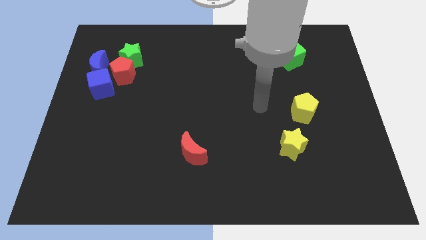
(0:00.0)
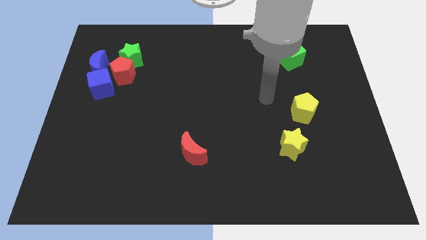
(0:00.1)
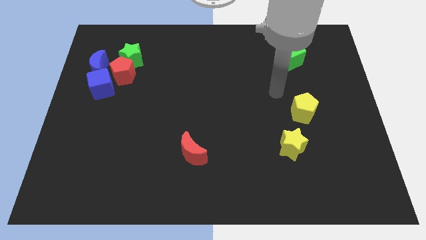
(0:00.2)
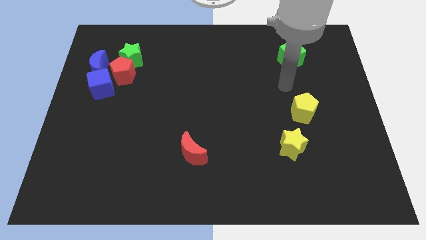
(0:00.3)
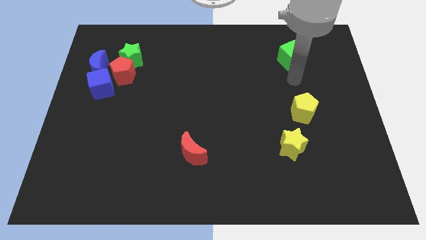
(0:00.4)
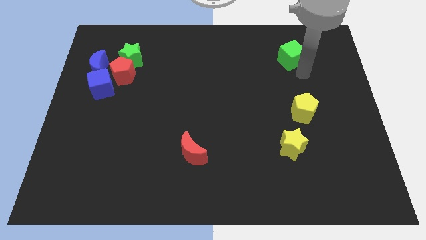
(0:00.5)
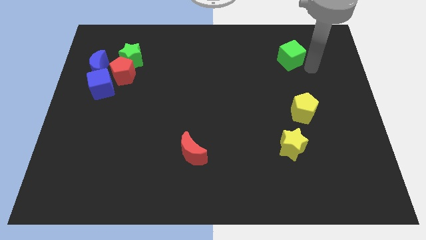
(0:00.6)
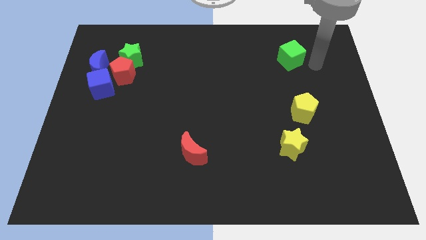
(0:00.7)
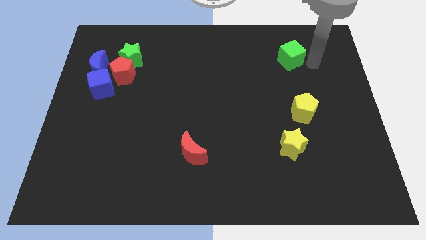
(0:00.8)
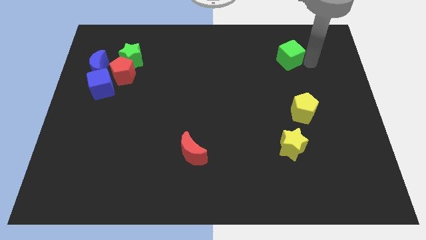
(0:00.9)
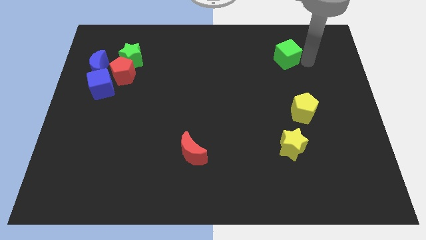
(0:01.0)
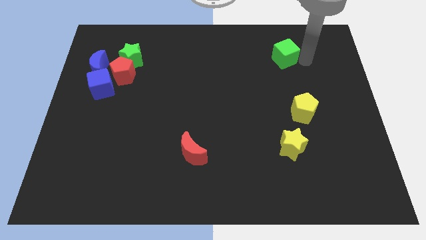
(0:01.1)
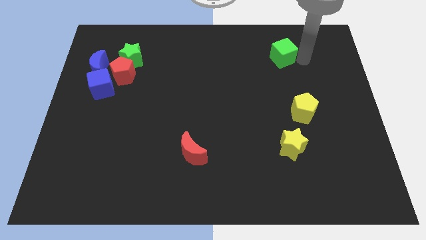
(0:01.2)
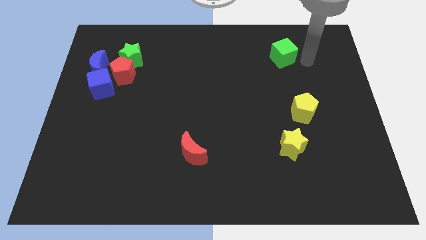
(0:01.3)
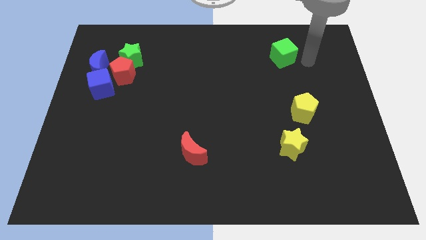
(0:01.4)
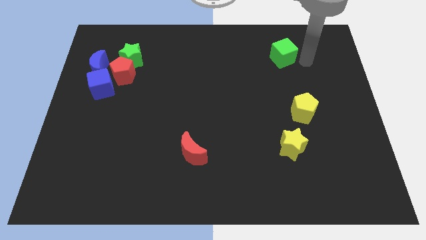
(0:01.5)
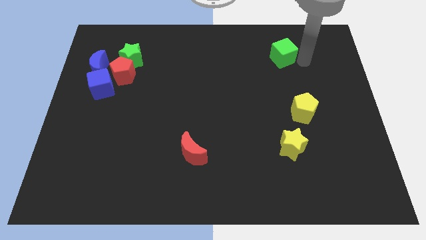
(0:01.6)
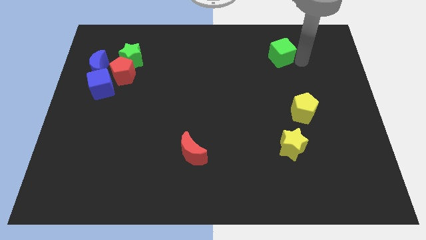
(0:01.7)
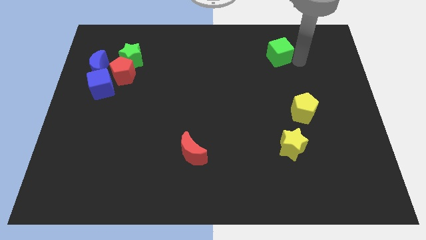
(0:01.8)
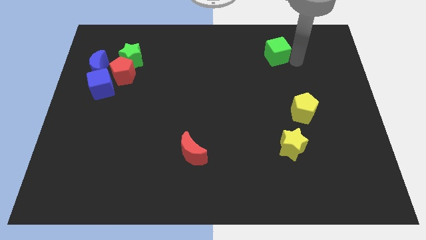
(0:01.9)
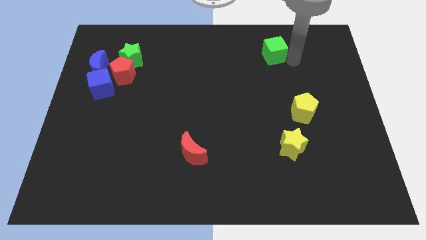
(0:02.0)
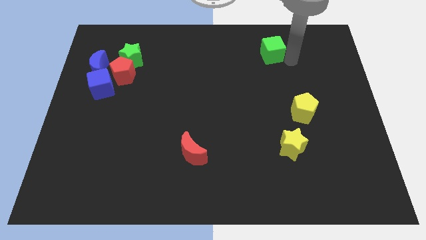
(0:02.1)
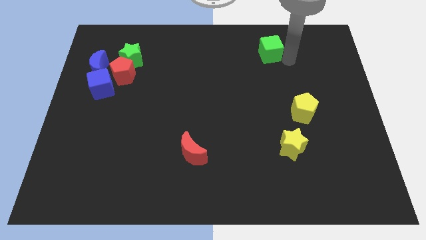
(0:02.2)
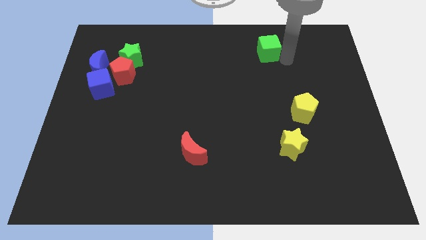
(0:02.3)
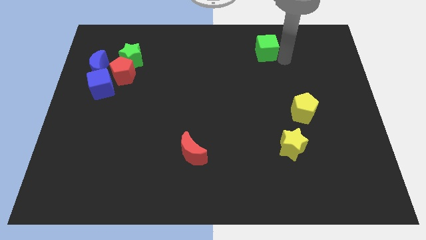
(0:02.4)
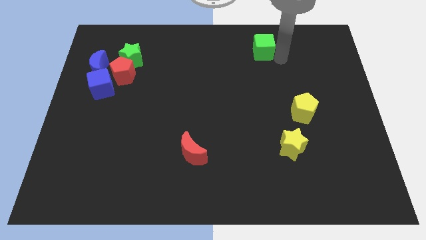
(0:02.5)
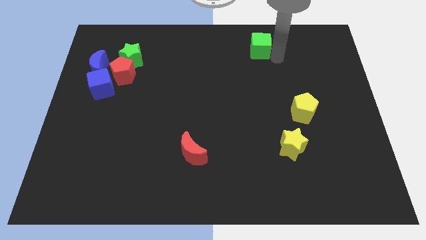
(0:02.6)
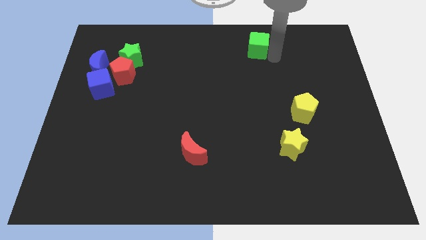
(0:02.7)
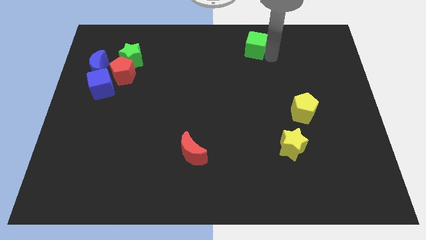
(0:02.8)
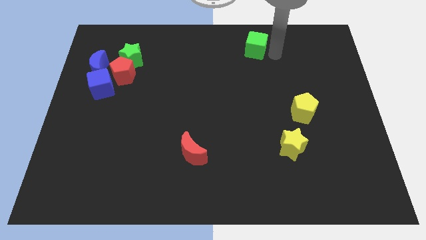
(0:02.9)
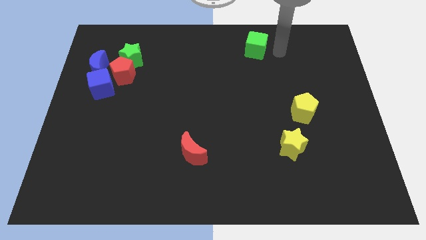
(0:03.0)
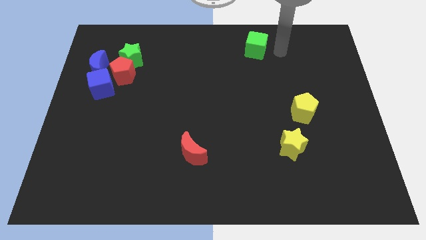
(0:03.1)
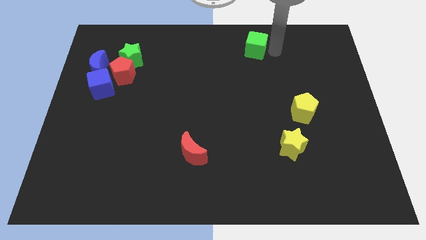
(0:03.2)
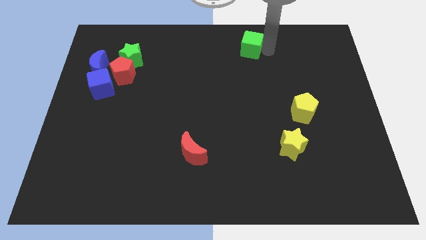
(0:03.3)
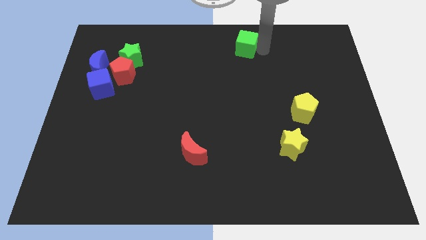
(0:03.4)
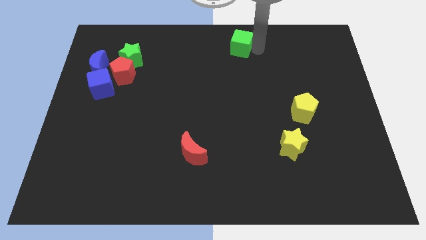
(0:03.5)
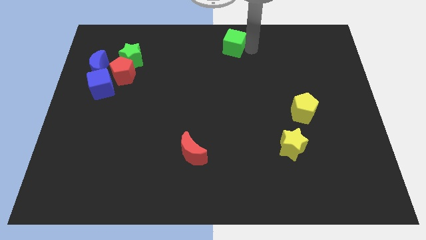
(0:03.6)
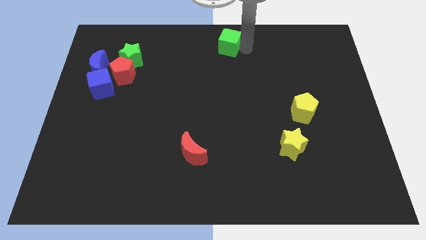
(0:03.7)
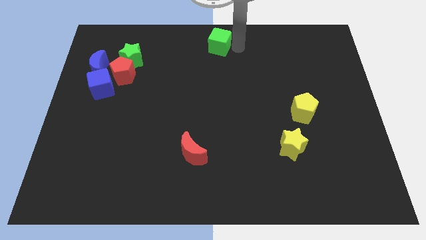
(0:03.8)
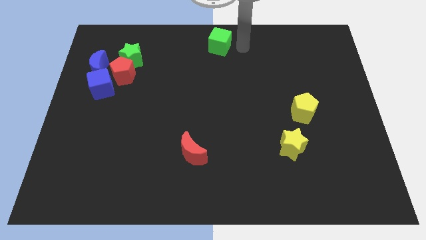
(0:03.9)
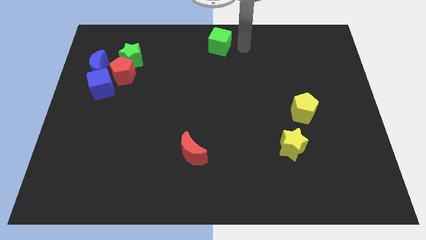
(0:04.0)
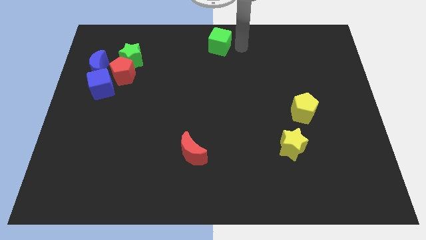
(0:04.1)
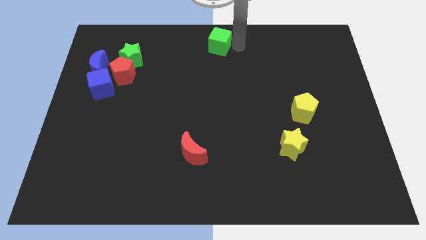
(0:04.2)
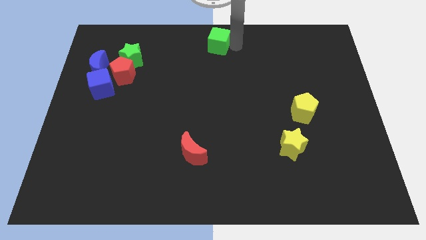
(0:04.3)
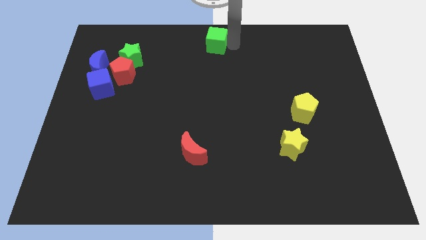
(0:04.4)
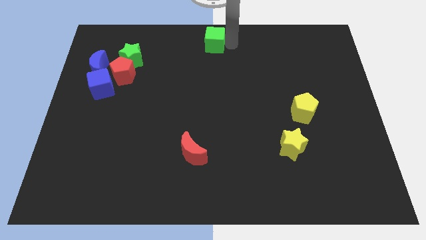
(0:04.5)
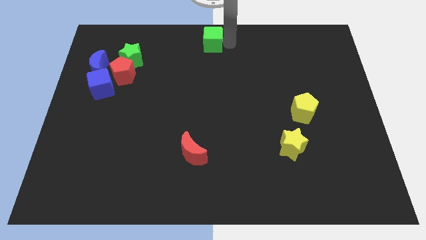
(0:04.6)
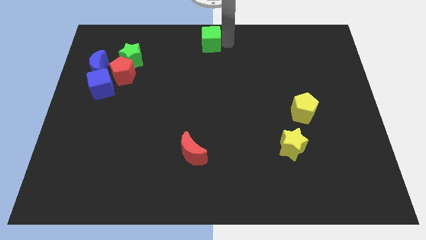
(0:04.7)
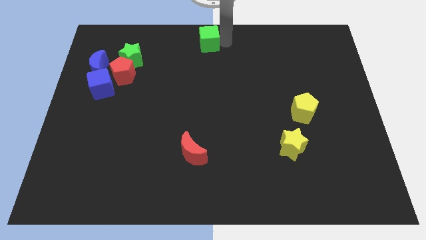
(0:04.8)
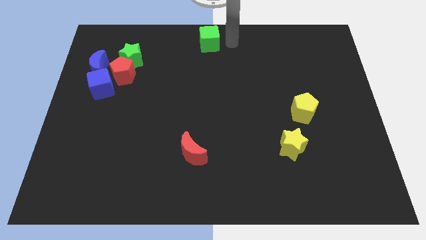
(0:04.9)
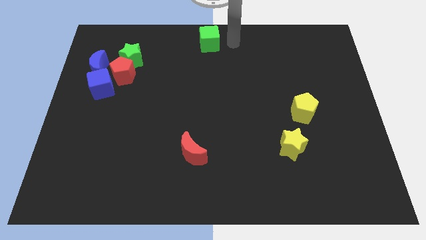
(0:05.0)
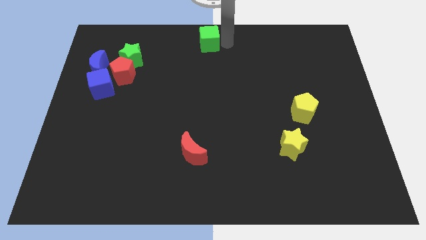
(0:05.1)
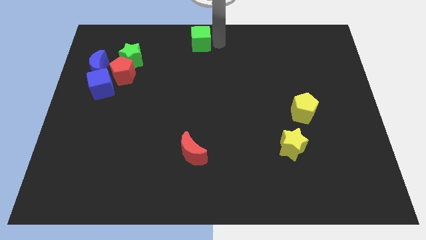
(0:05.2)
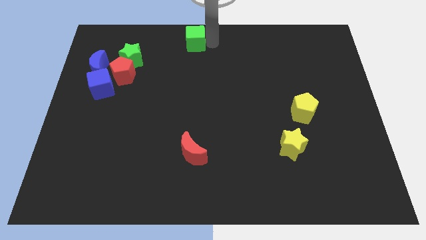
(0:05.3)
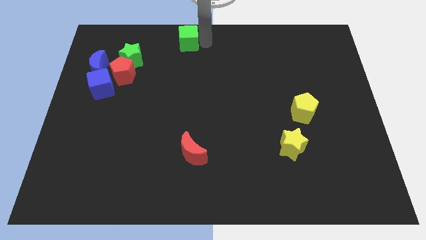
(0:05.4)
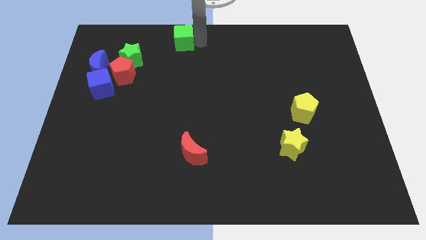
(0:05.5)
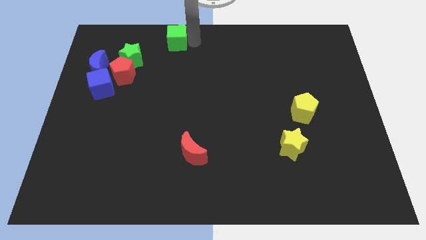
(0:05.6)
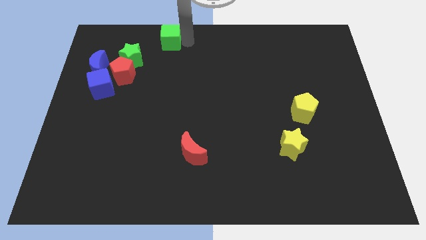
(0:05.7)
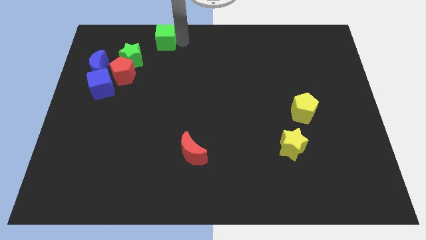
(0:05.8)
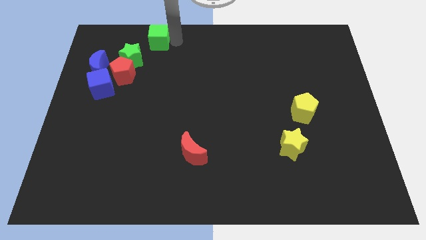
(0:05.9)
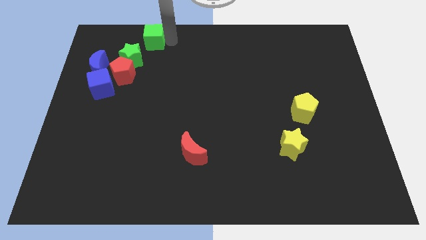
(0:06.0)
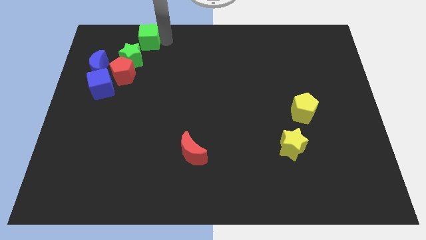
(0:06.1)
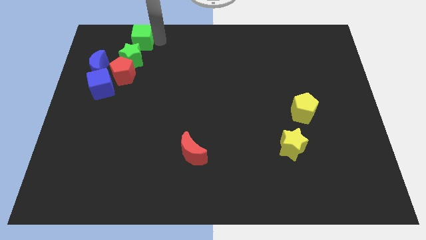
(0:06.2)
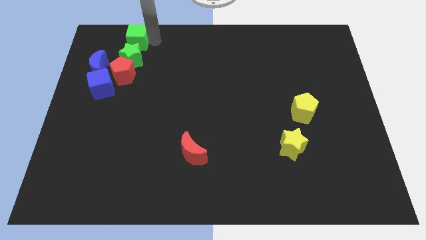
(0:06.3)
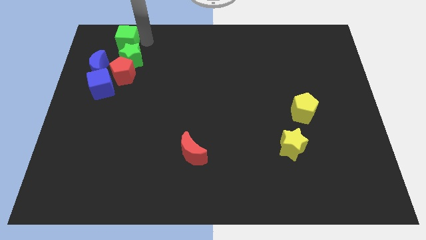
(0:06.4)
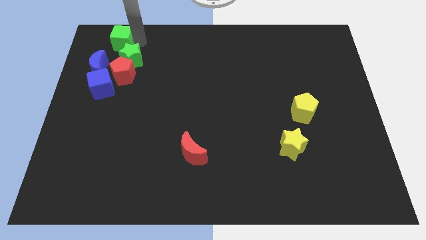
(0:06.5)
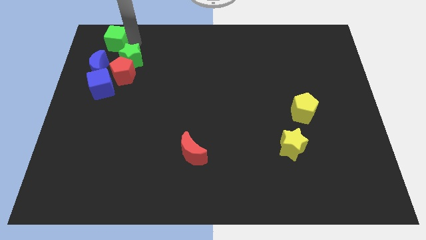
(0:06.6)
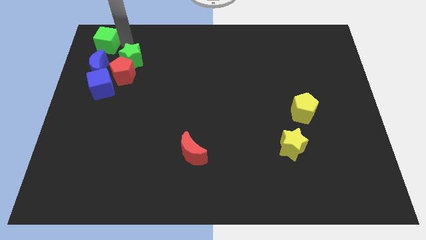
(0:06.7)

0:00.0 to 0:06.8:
push the green cube to the top left of the board
